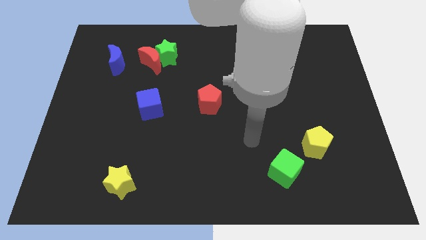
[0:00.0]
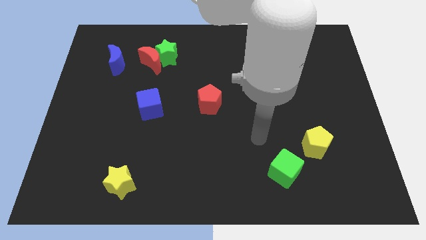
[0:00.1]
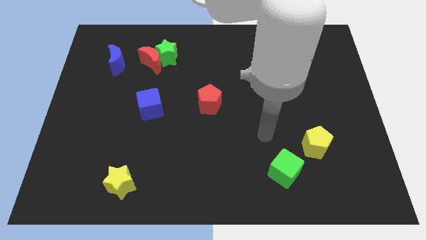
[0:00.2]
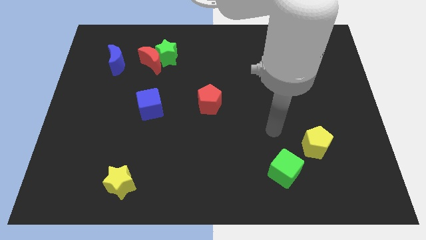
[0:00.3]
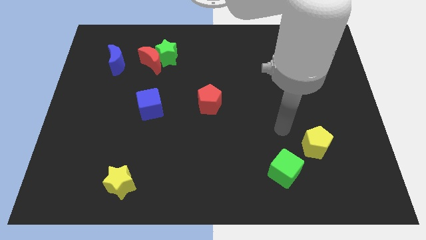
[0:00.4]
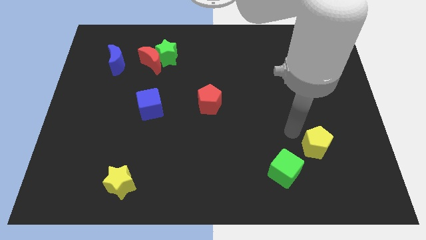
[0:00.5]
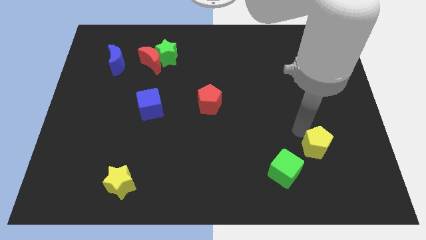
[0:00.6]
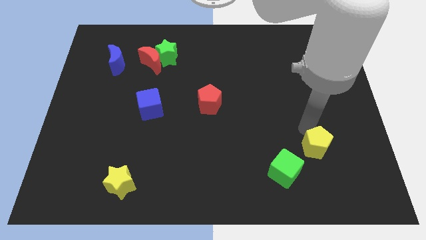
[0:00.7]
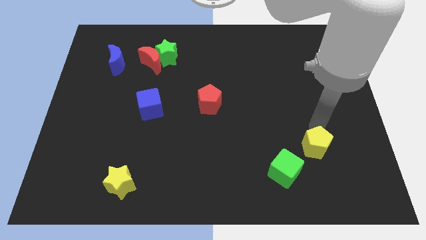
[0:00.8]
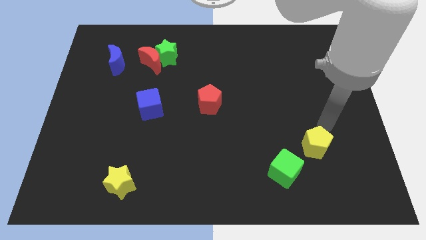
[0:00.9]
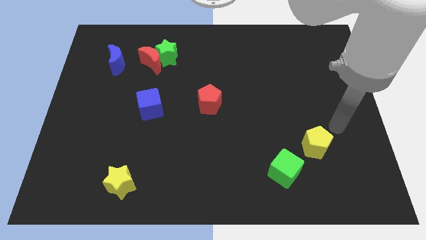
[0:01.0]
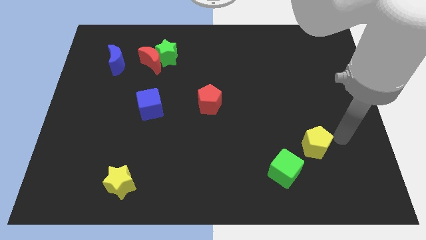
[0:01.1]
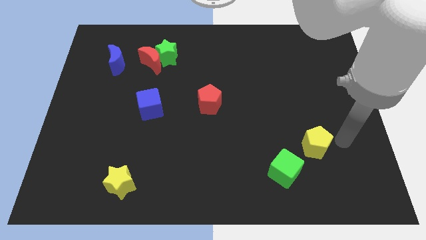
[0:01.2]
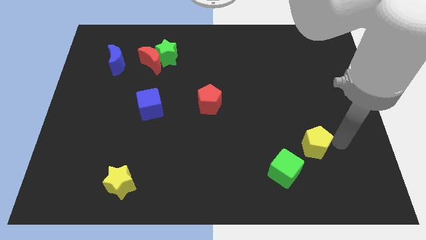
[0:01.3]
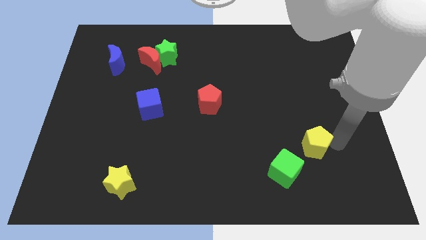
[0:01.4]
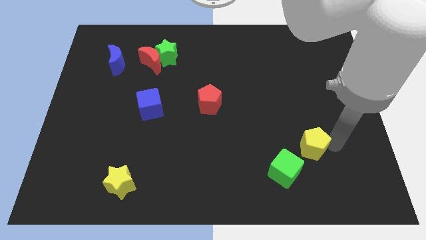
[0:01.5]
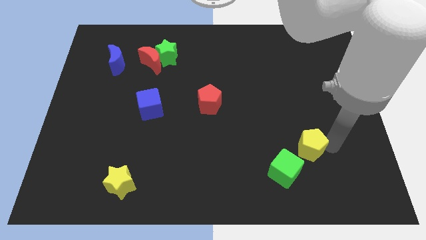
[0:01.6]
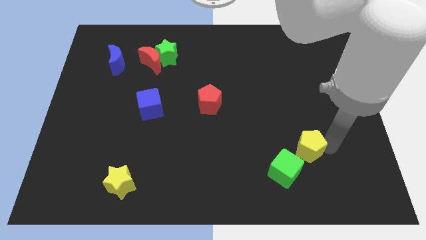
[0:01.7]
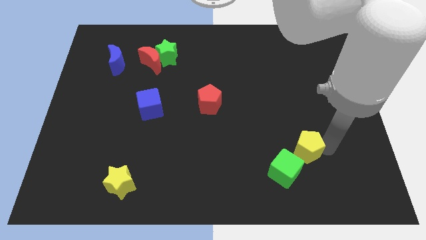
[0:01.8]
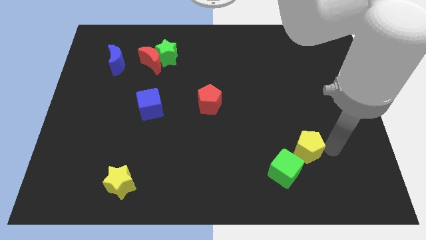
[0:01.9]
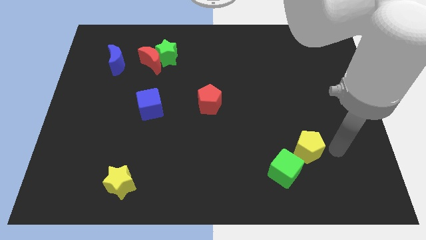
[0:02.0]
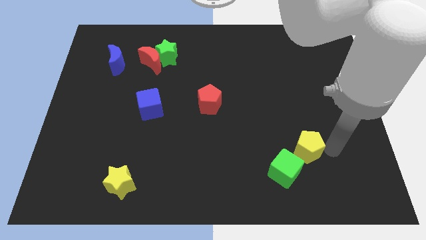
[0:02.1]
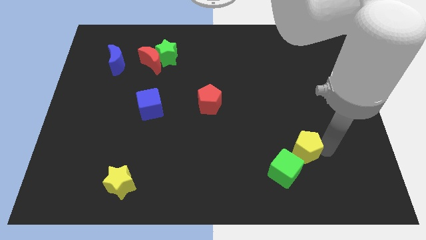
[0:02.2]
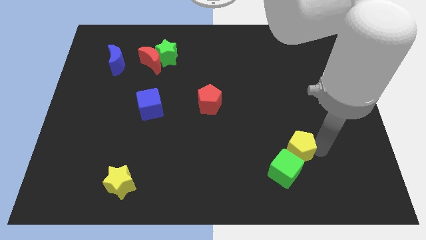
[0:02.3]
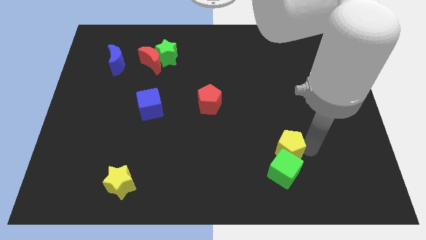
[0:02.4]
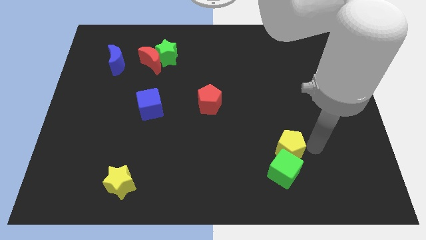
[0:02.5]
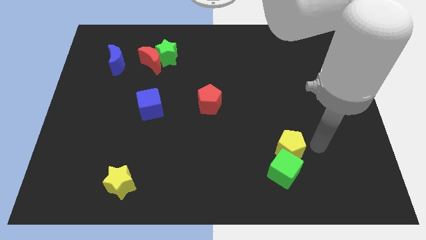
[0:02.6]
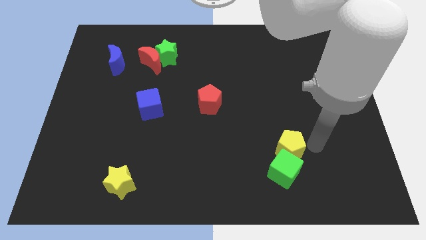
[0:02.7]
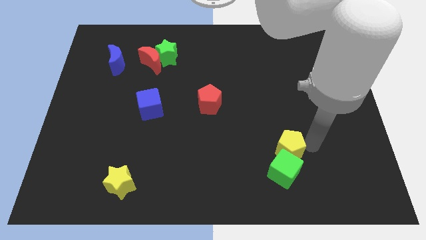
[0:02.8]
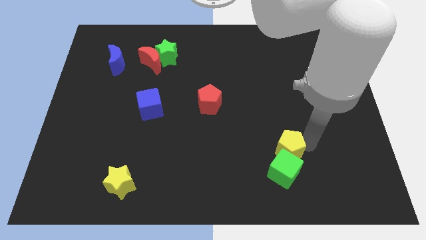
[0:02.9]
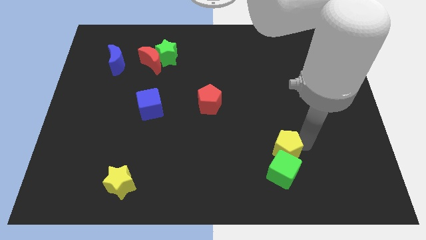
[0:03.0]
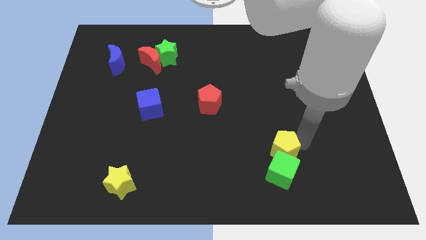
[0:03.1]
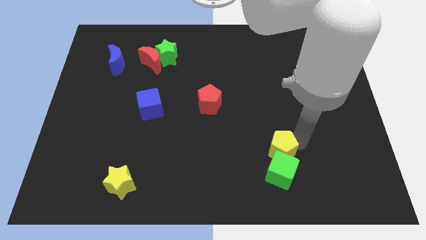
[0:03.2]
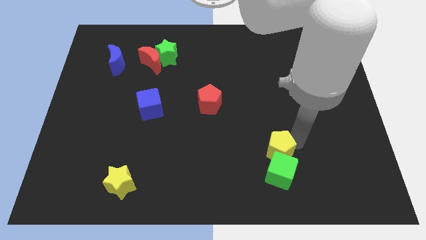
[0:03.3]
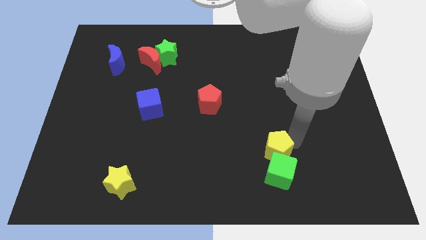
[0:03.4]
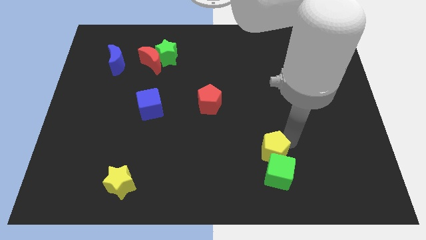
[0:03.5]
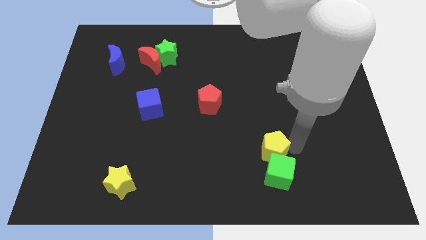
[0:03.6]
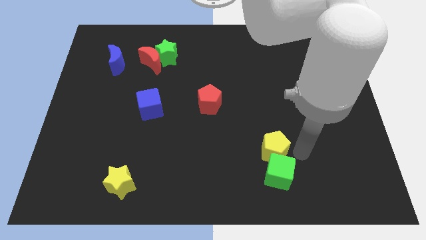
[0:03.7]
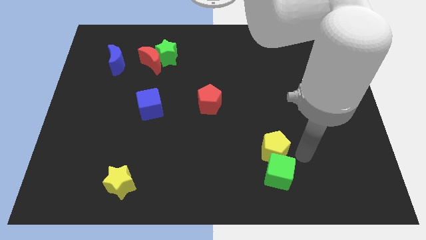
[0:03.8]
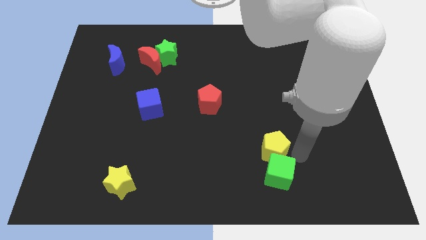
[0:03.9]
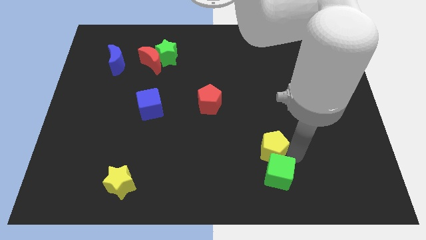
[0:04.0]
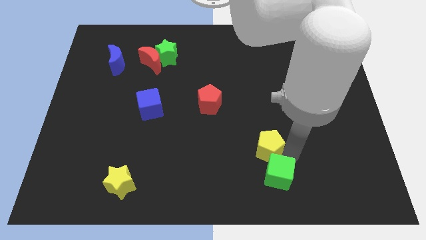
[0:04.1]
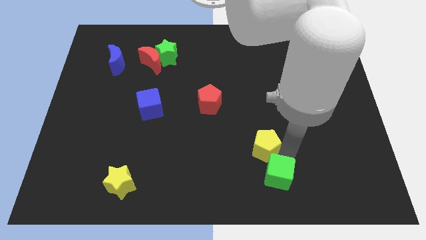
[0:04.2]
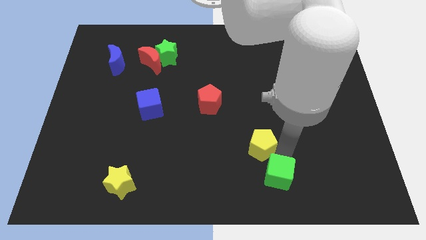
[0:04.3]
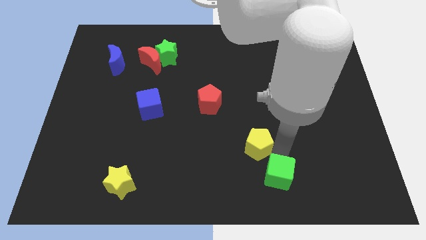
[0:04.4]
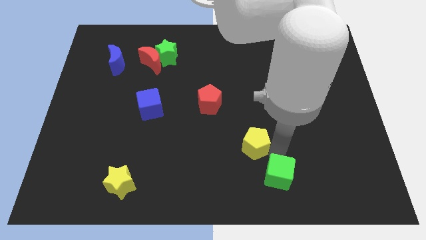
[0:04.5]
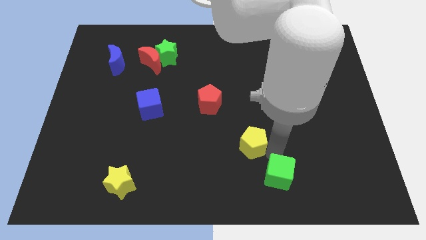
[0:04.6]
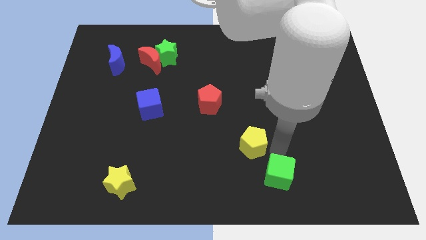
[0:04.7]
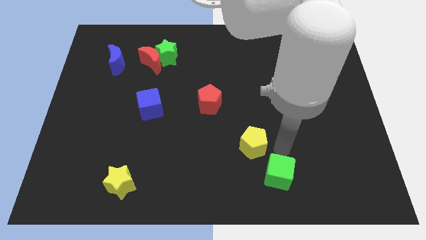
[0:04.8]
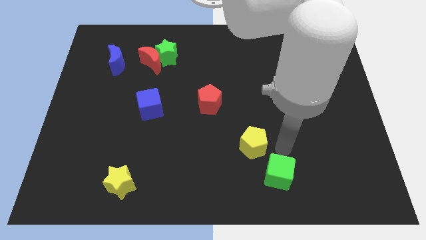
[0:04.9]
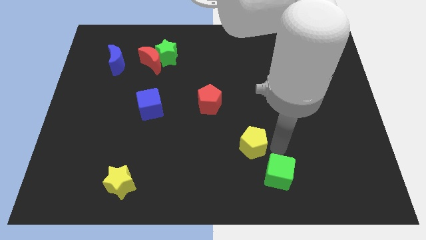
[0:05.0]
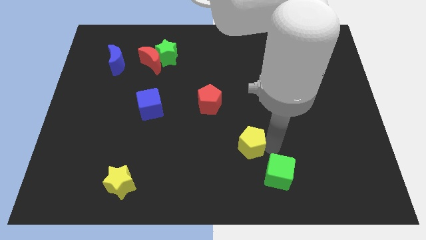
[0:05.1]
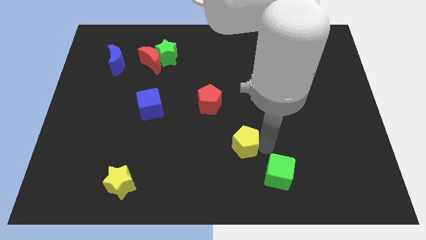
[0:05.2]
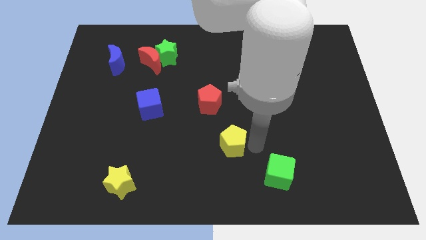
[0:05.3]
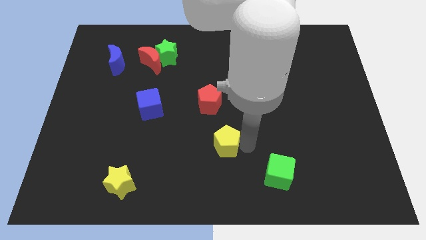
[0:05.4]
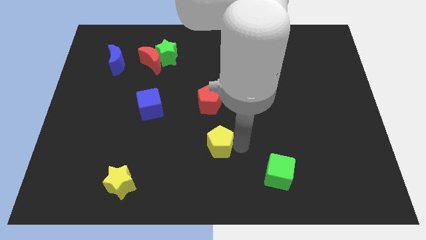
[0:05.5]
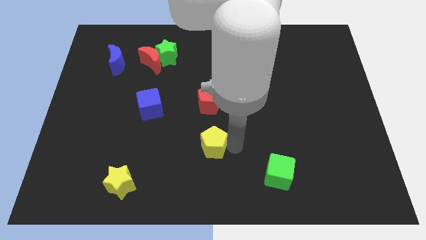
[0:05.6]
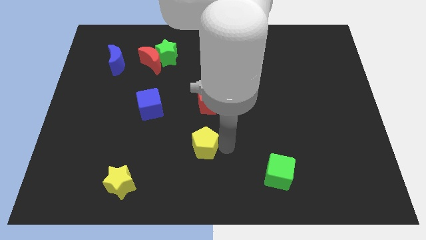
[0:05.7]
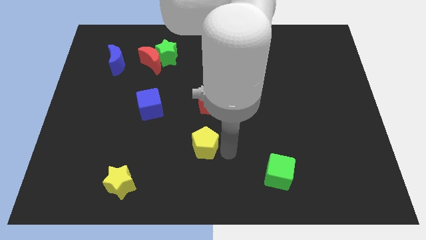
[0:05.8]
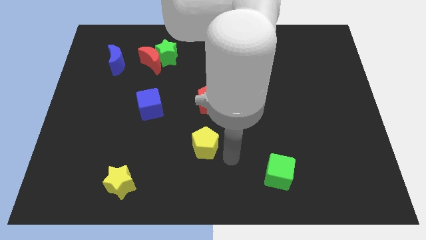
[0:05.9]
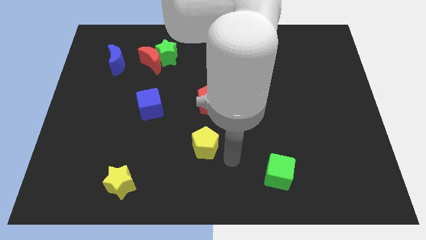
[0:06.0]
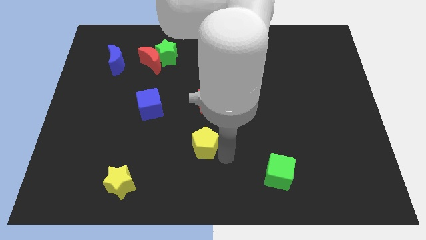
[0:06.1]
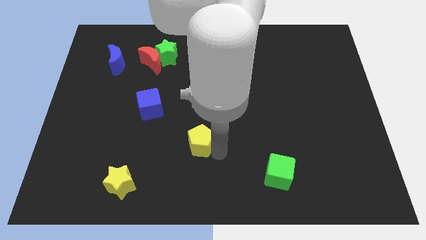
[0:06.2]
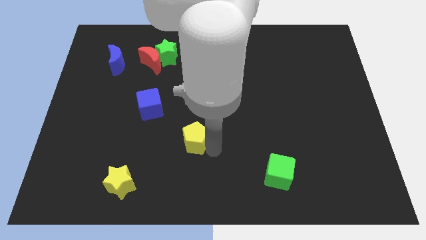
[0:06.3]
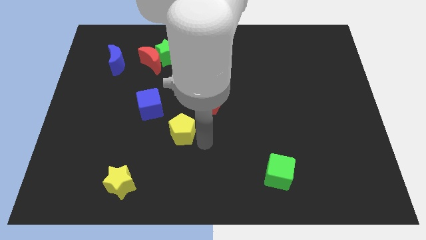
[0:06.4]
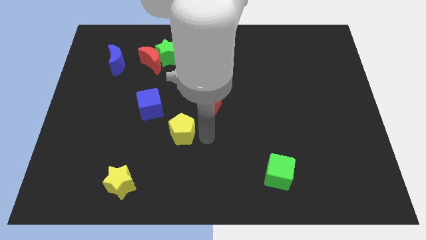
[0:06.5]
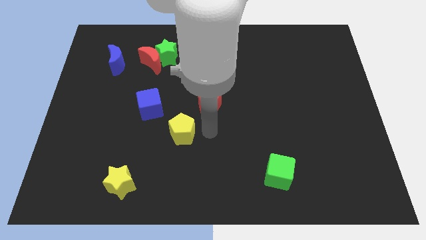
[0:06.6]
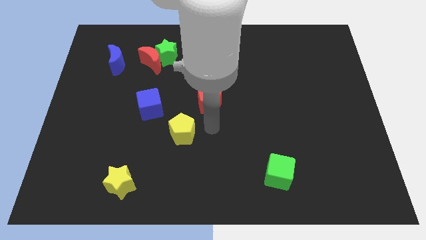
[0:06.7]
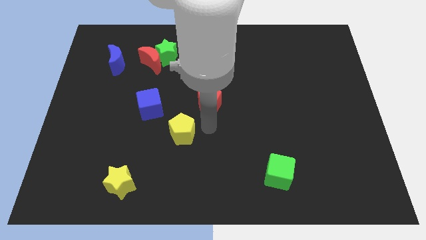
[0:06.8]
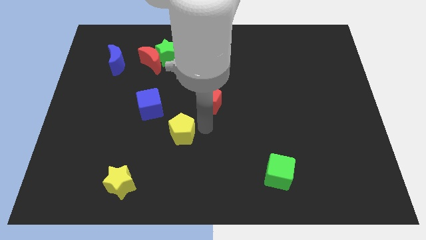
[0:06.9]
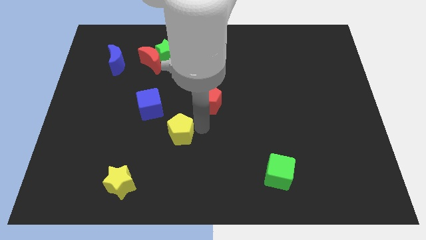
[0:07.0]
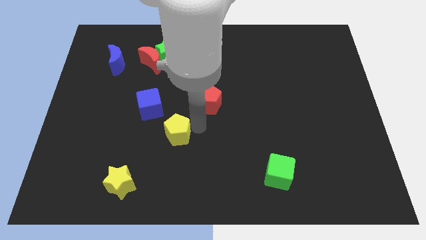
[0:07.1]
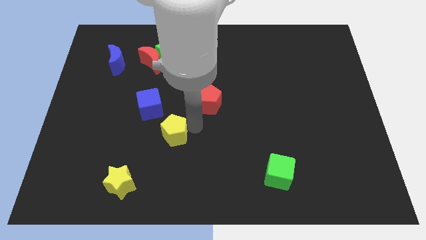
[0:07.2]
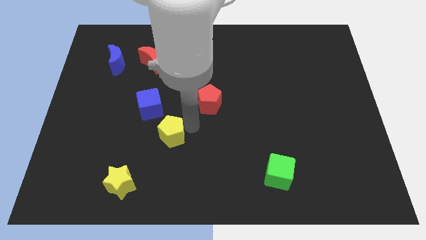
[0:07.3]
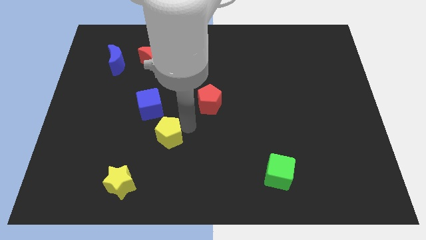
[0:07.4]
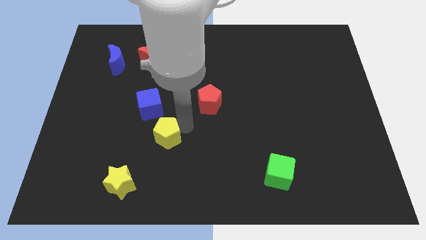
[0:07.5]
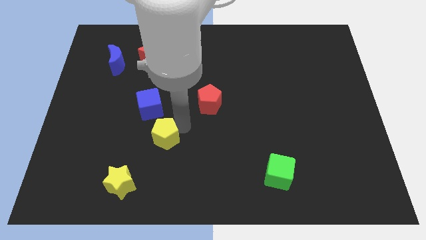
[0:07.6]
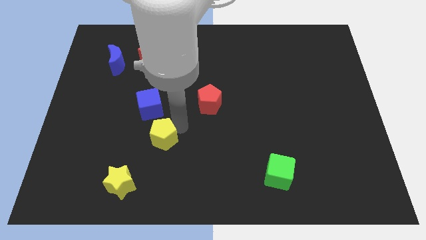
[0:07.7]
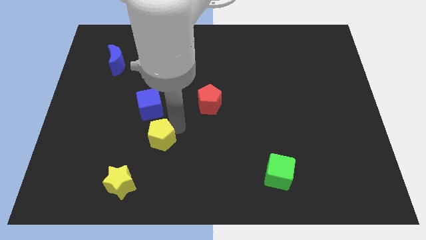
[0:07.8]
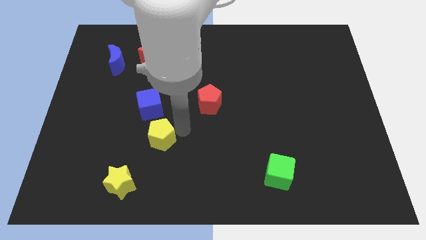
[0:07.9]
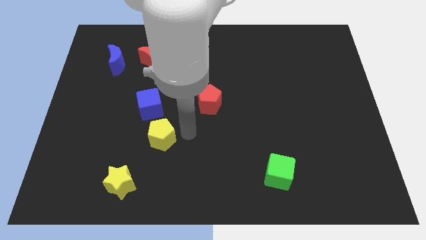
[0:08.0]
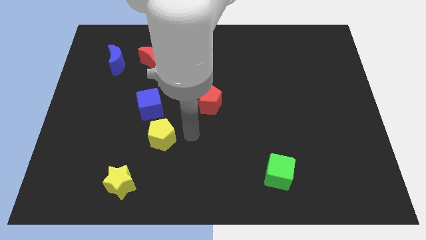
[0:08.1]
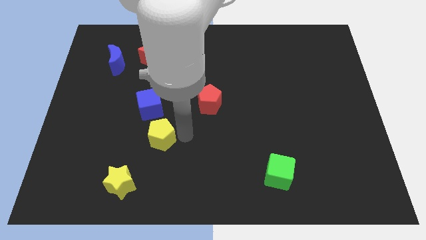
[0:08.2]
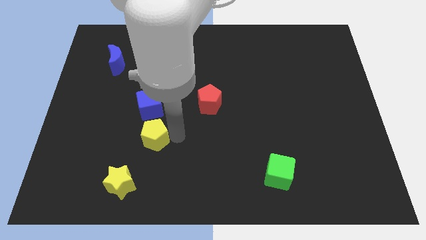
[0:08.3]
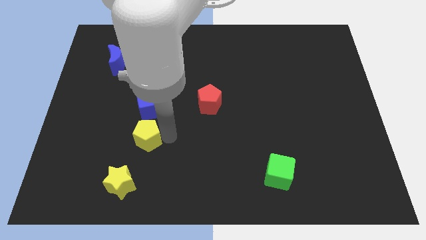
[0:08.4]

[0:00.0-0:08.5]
move the yellow pentagon to the top side of the yellow star
